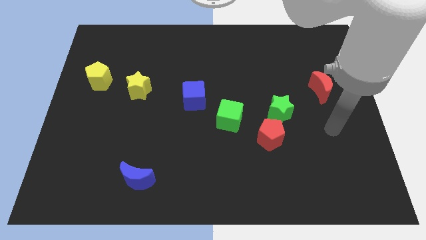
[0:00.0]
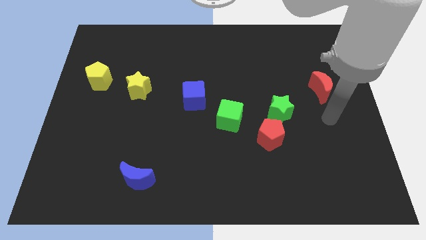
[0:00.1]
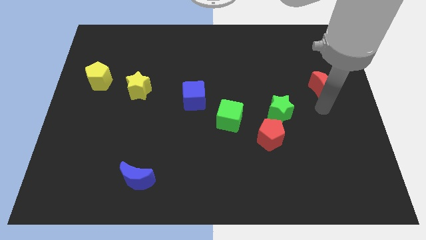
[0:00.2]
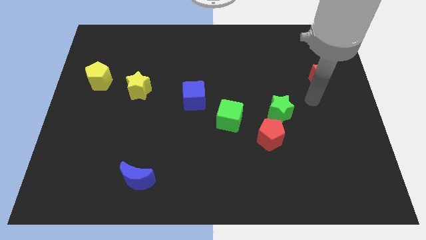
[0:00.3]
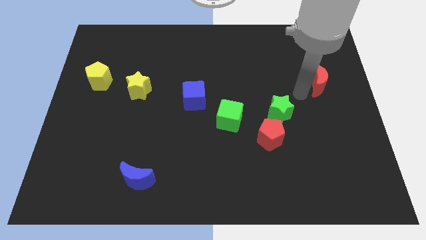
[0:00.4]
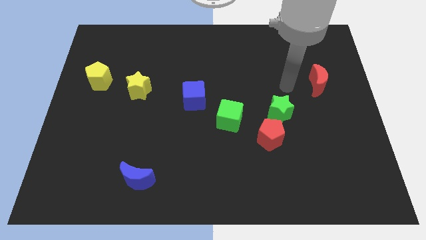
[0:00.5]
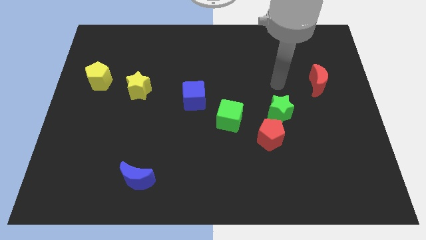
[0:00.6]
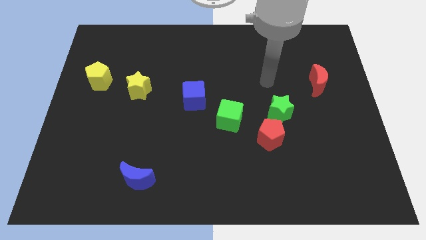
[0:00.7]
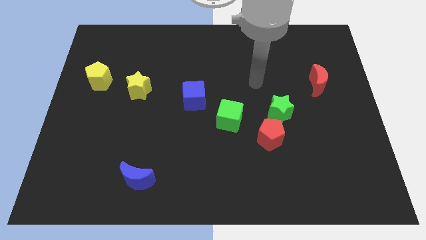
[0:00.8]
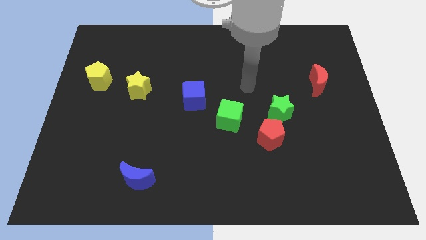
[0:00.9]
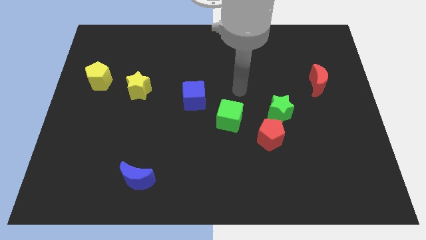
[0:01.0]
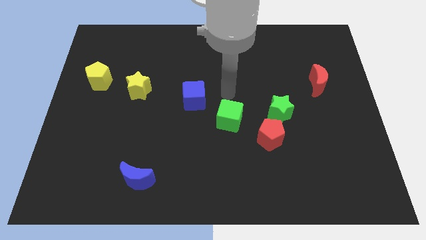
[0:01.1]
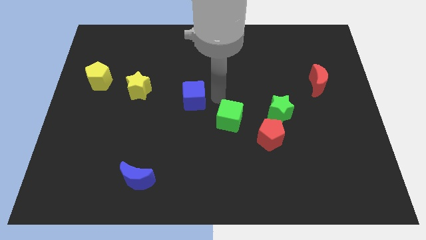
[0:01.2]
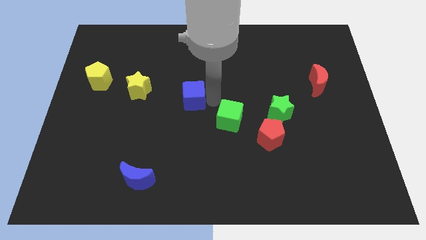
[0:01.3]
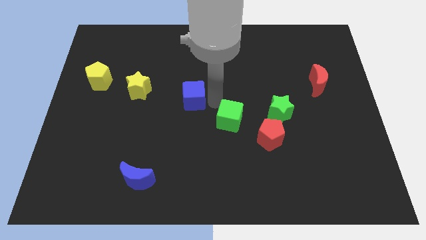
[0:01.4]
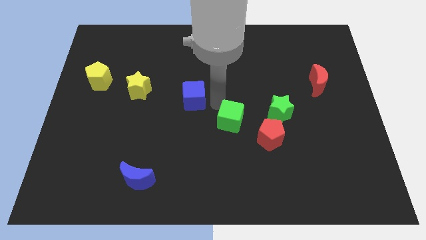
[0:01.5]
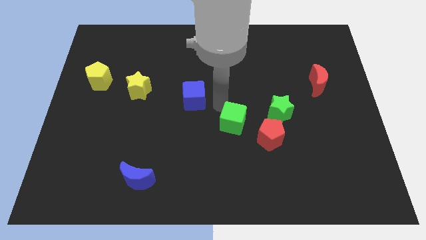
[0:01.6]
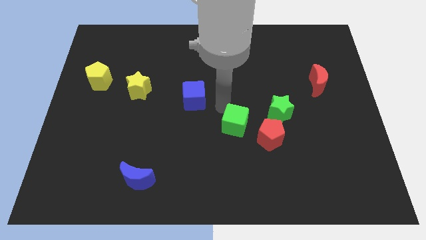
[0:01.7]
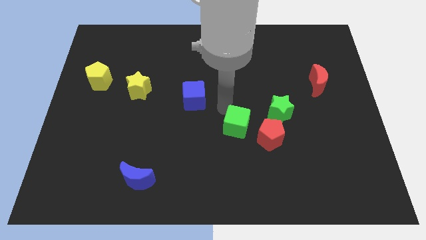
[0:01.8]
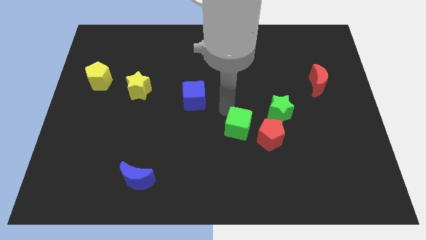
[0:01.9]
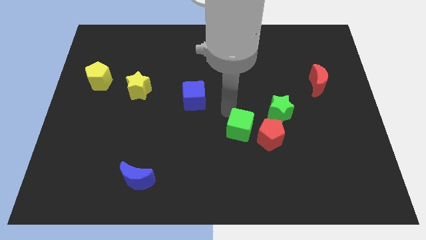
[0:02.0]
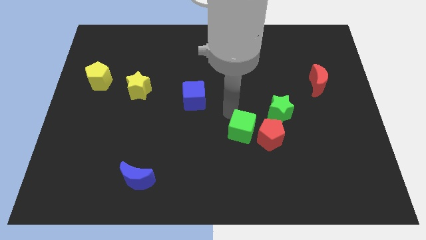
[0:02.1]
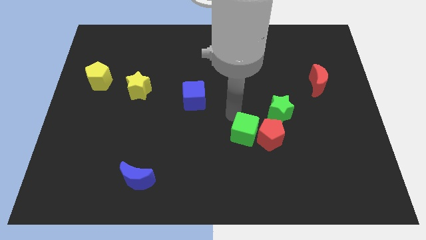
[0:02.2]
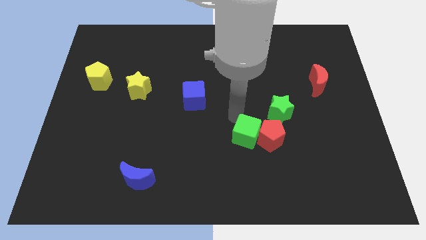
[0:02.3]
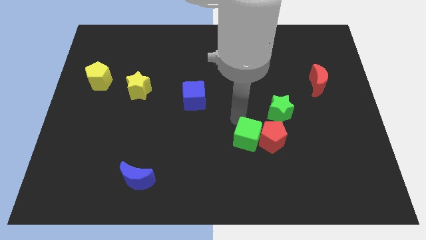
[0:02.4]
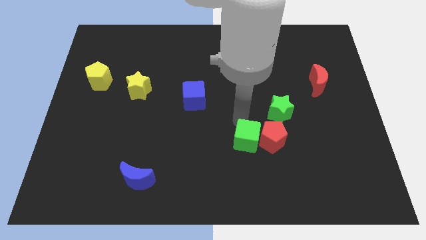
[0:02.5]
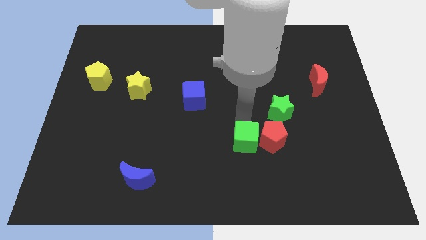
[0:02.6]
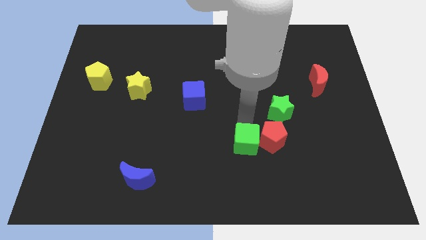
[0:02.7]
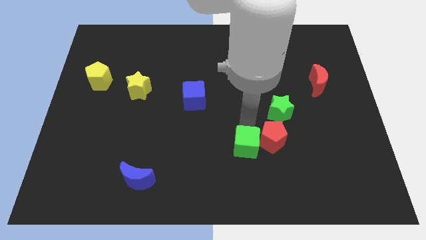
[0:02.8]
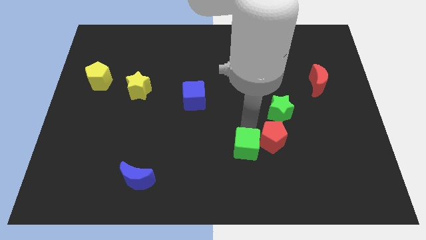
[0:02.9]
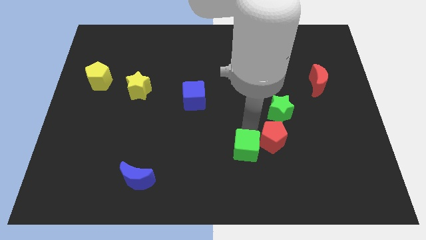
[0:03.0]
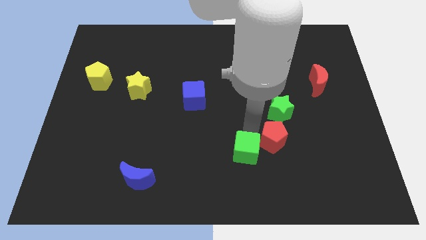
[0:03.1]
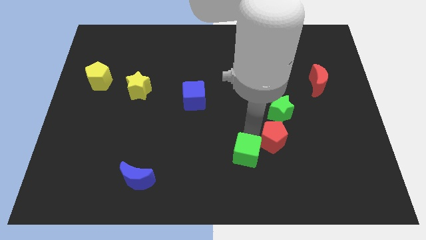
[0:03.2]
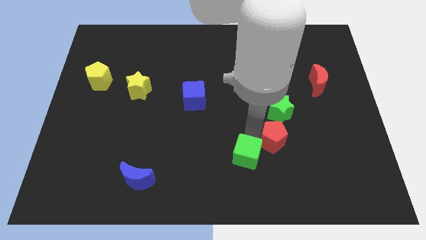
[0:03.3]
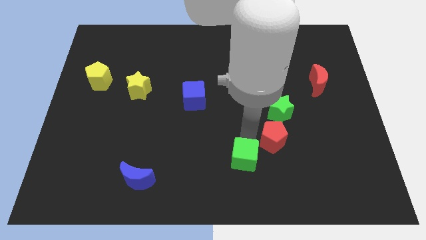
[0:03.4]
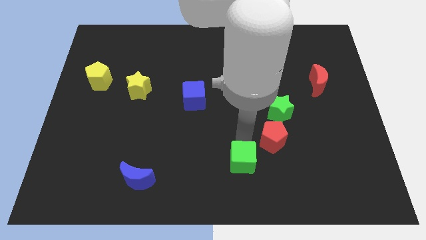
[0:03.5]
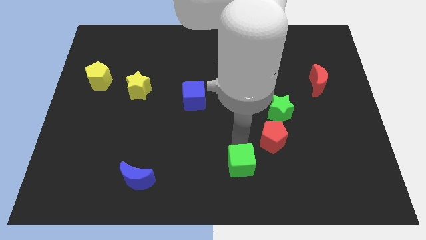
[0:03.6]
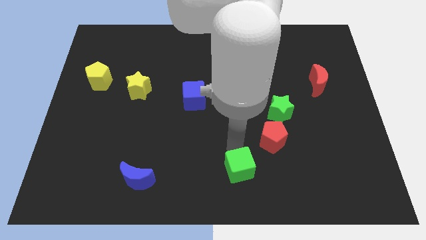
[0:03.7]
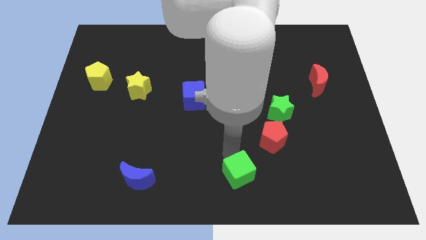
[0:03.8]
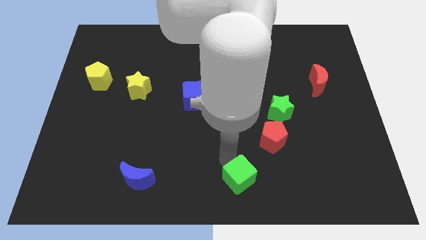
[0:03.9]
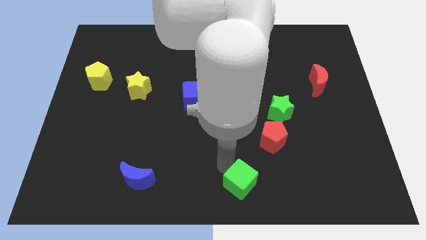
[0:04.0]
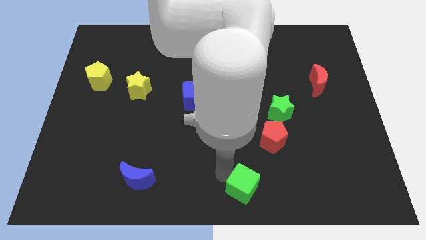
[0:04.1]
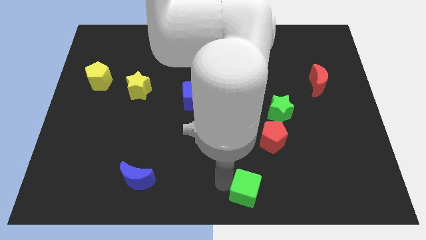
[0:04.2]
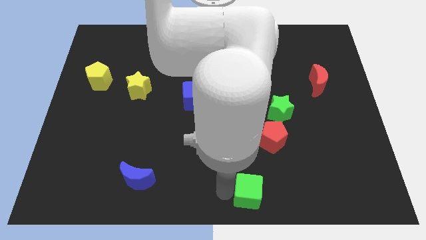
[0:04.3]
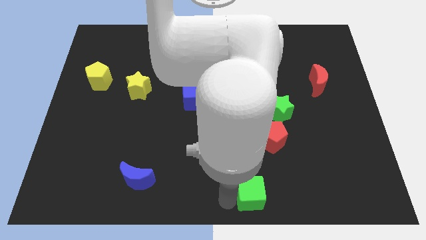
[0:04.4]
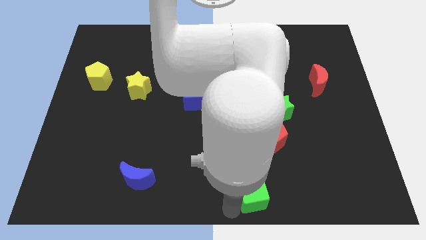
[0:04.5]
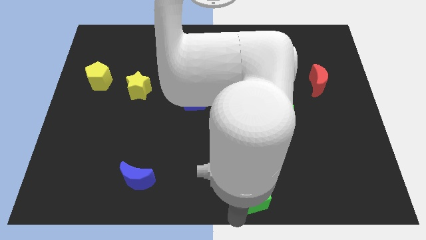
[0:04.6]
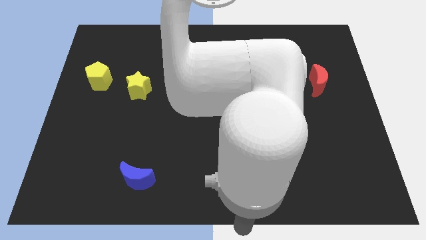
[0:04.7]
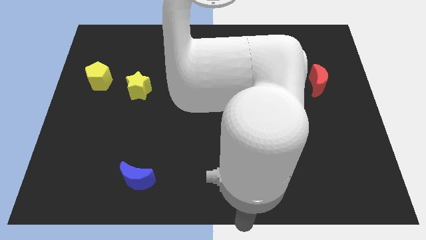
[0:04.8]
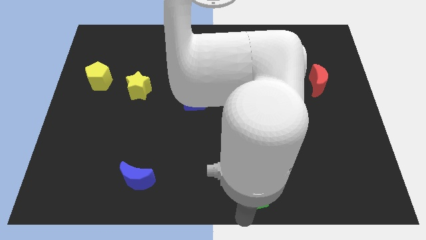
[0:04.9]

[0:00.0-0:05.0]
move the green cube below the red pentagon

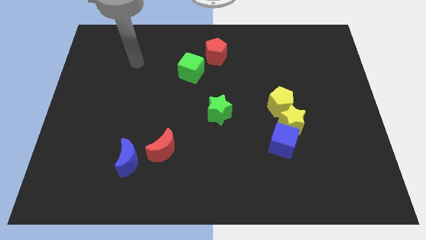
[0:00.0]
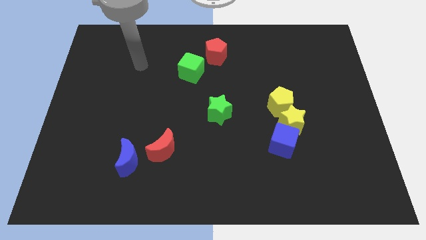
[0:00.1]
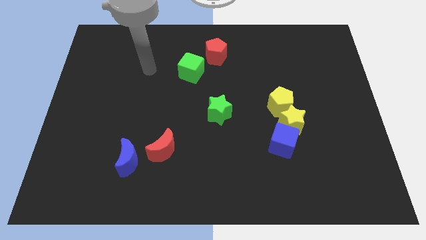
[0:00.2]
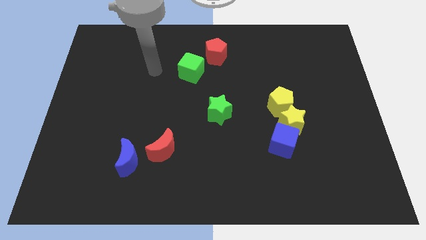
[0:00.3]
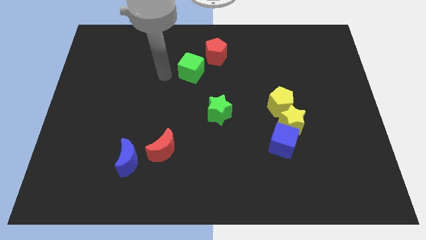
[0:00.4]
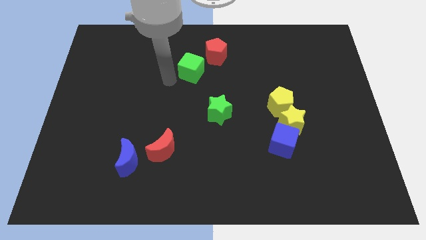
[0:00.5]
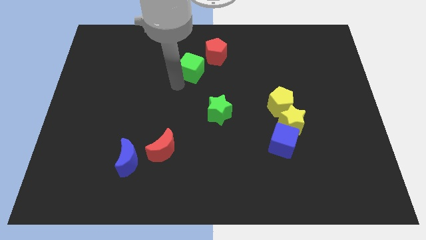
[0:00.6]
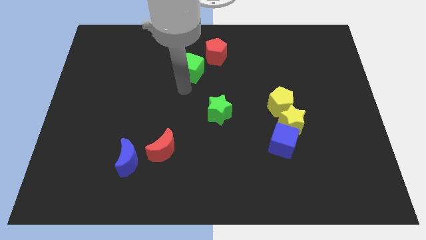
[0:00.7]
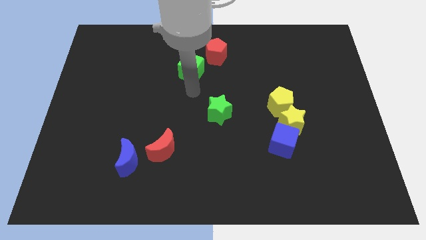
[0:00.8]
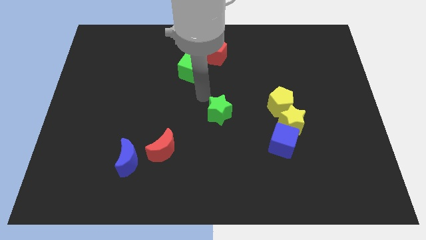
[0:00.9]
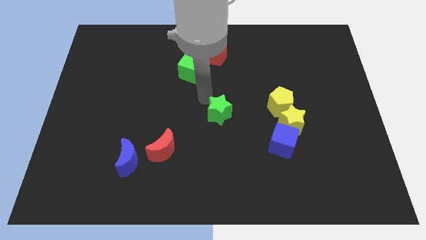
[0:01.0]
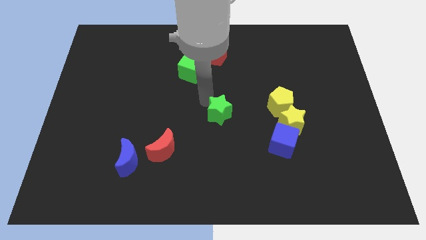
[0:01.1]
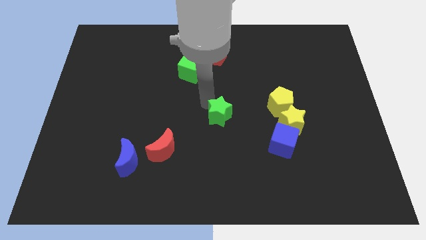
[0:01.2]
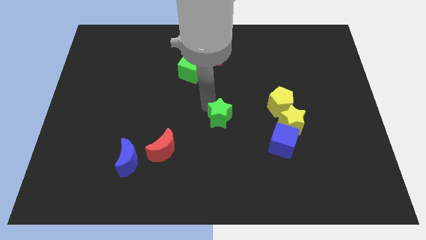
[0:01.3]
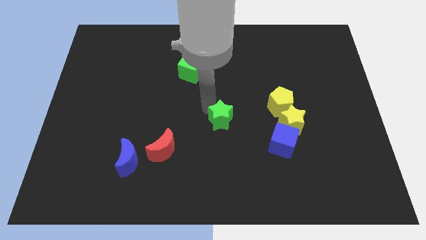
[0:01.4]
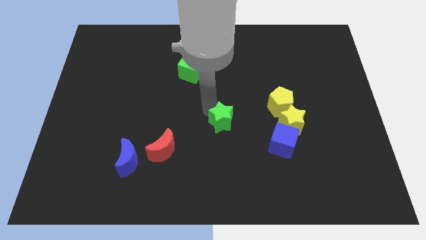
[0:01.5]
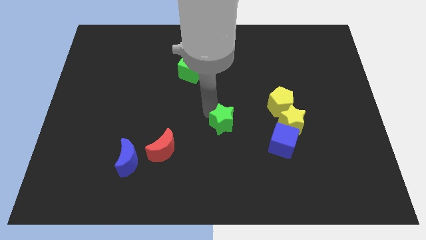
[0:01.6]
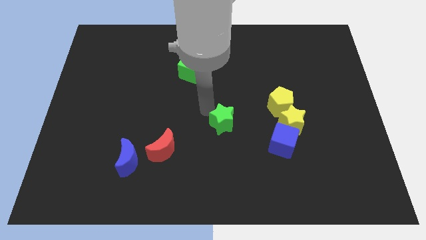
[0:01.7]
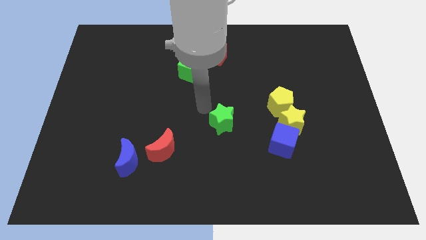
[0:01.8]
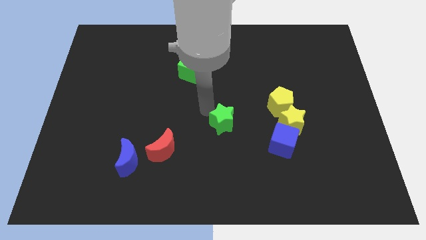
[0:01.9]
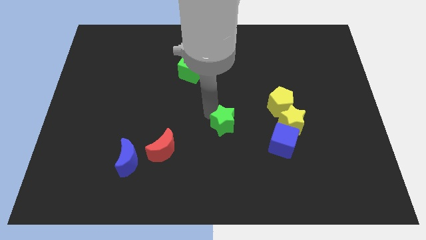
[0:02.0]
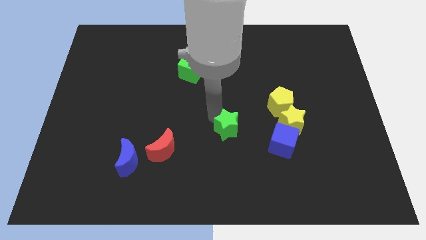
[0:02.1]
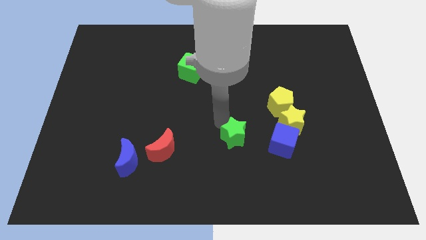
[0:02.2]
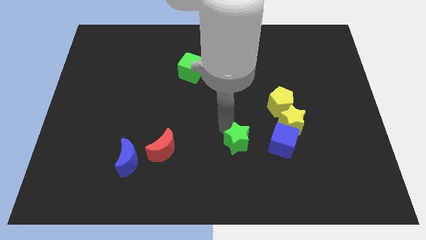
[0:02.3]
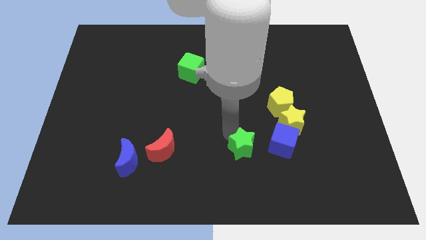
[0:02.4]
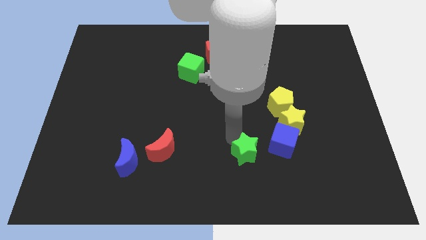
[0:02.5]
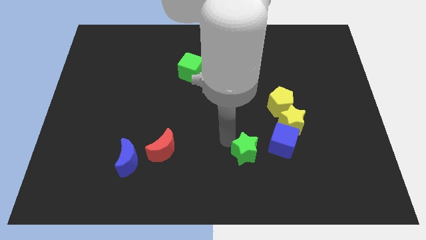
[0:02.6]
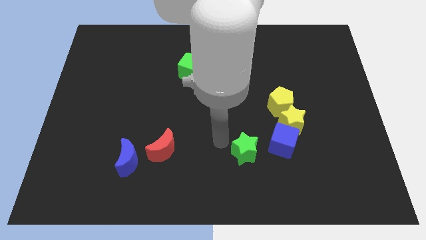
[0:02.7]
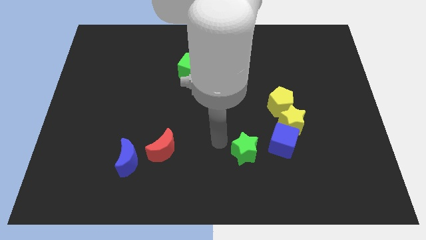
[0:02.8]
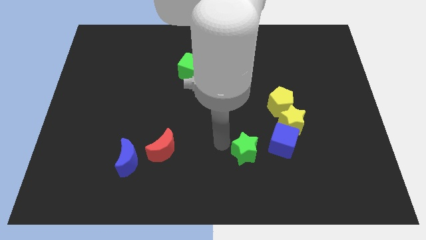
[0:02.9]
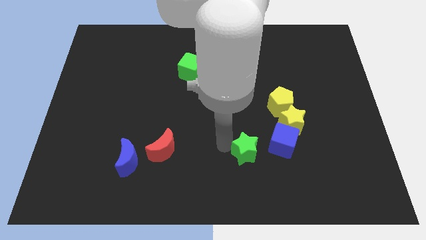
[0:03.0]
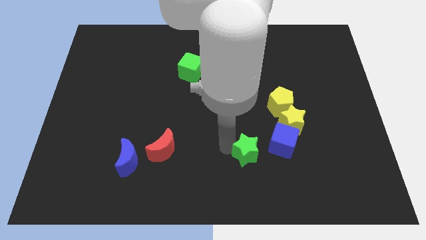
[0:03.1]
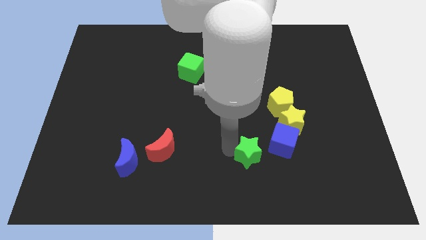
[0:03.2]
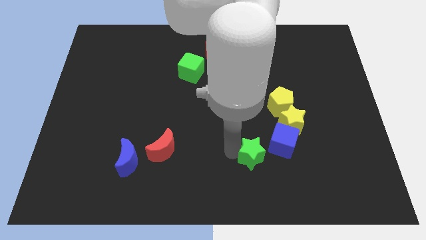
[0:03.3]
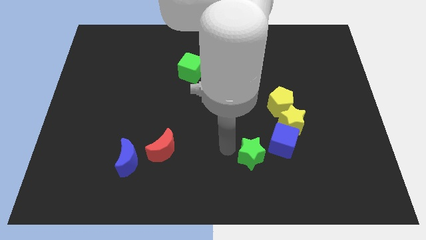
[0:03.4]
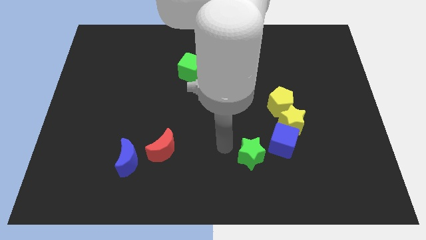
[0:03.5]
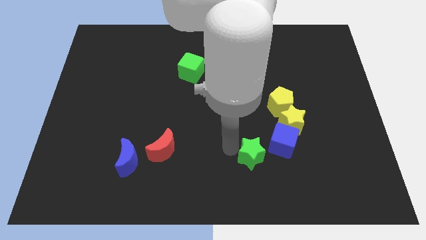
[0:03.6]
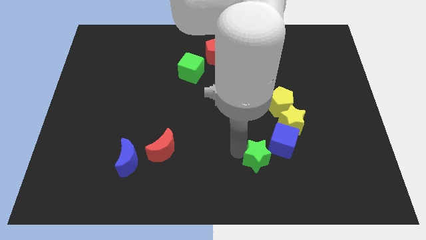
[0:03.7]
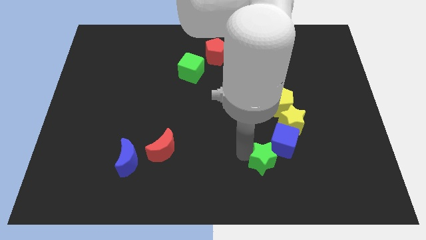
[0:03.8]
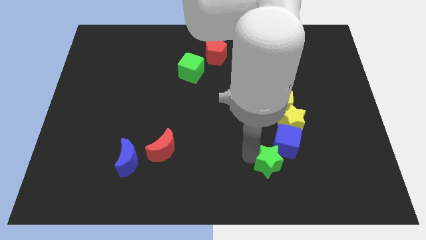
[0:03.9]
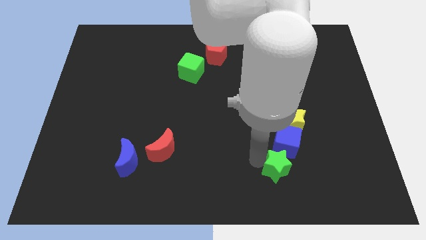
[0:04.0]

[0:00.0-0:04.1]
move the green star to the bottom side of the yellow star
